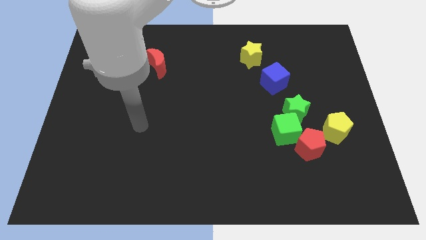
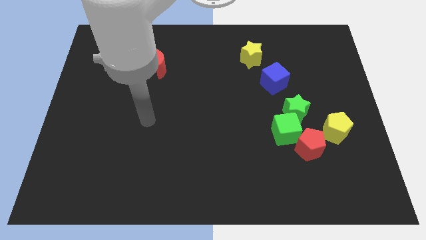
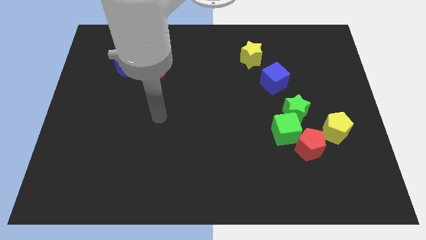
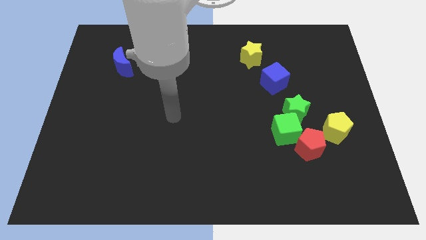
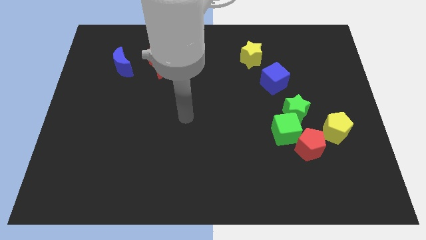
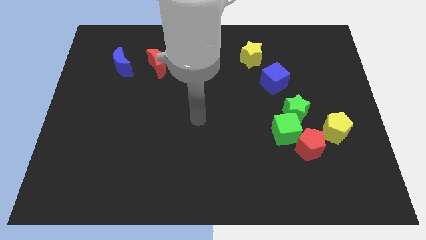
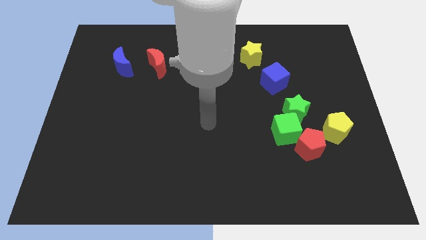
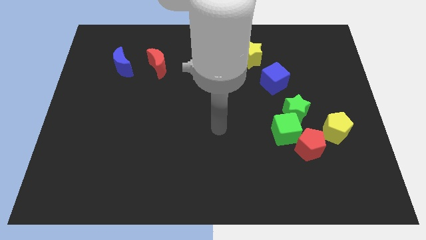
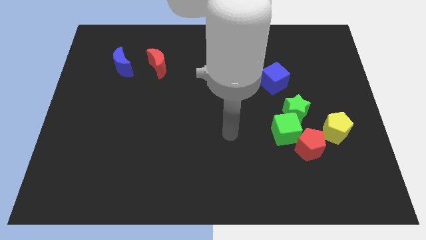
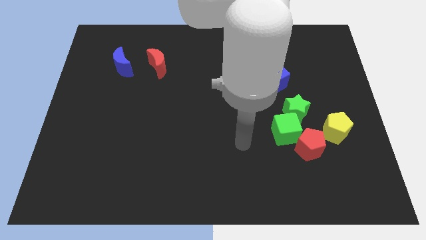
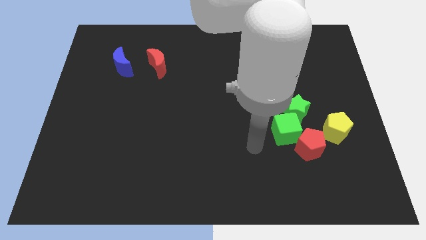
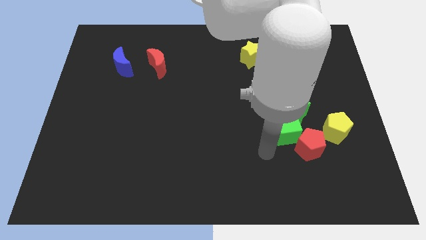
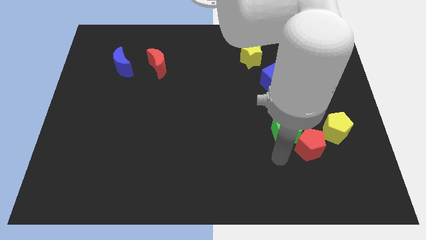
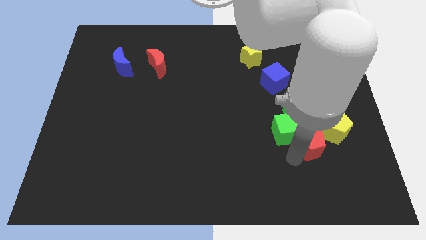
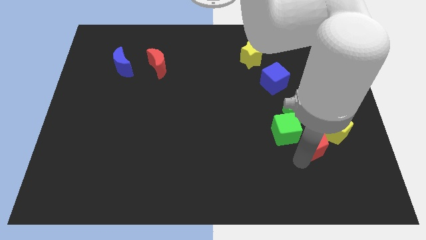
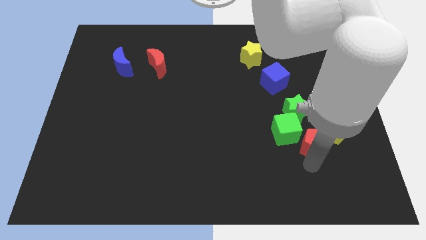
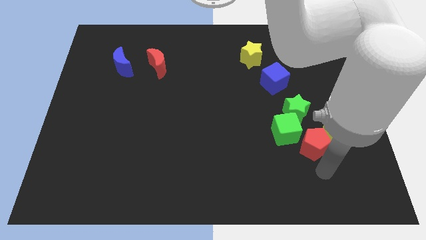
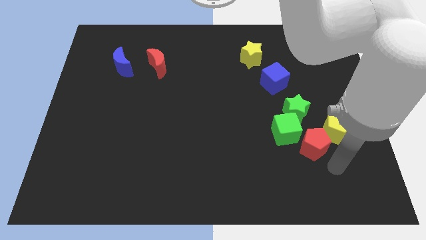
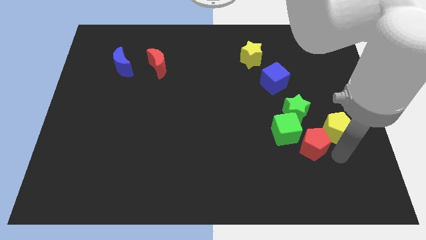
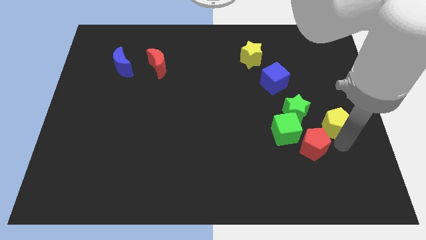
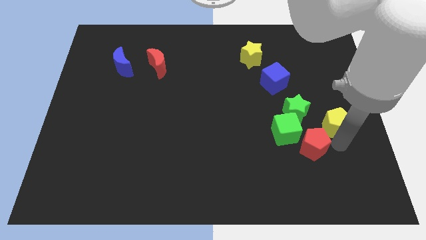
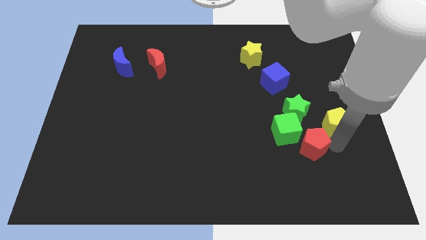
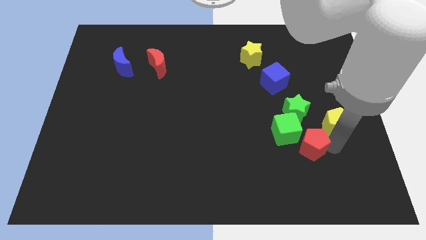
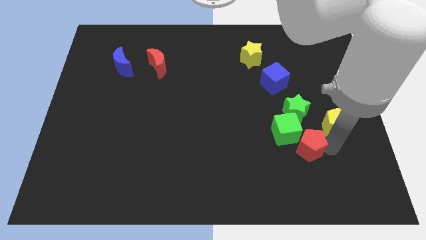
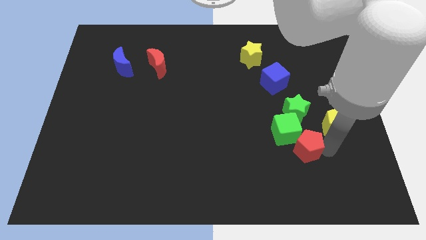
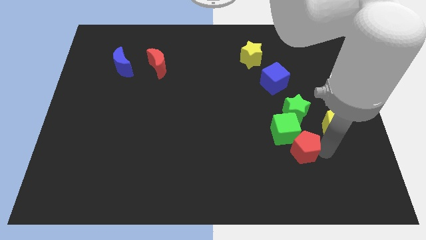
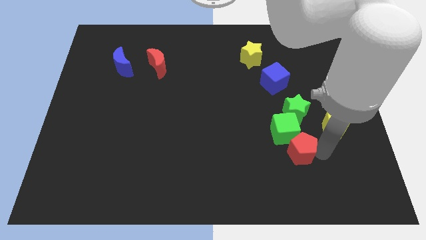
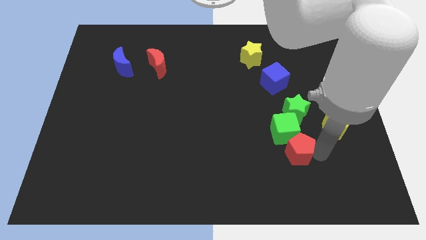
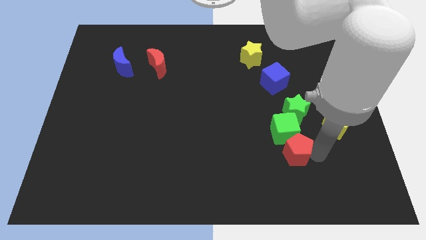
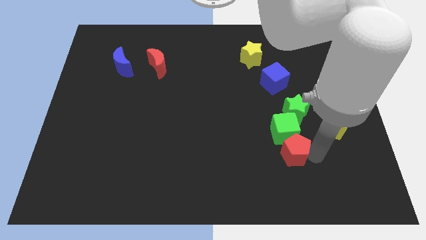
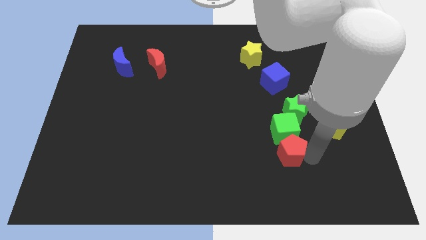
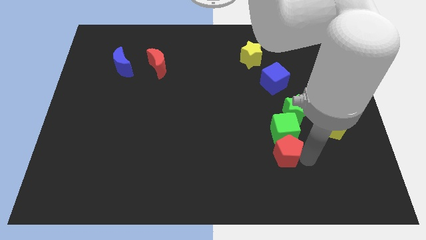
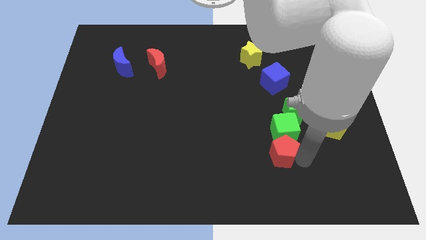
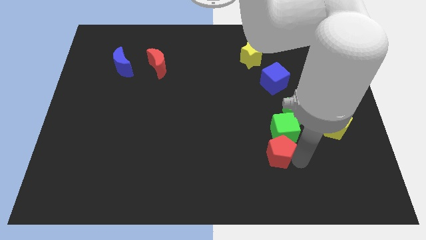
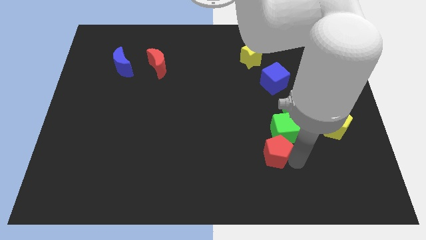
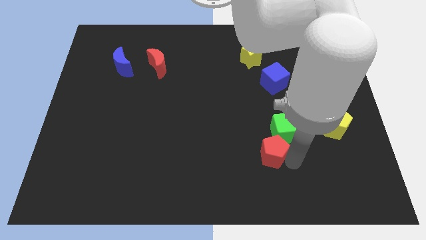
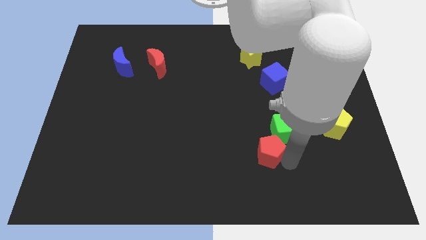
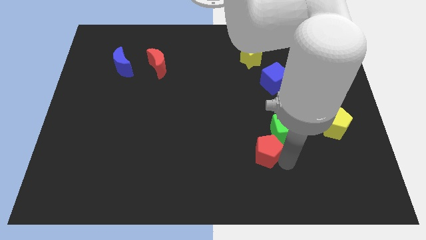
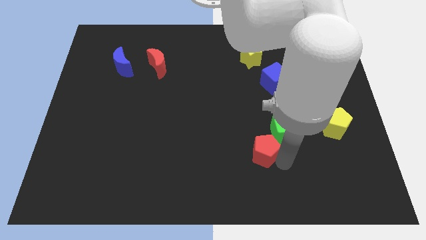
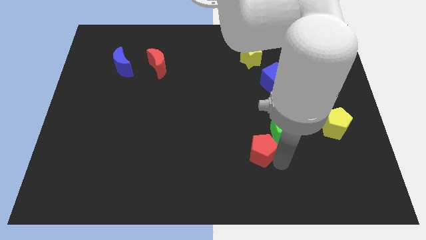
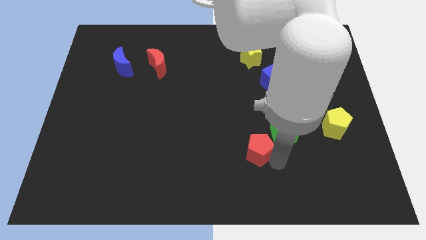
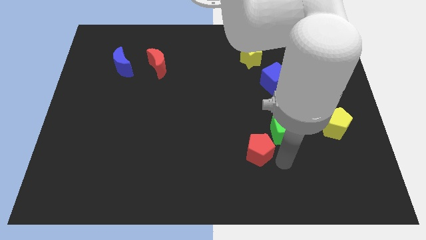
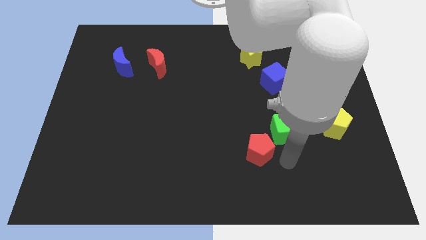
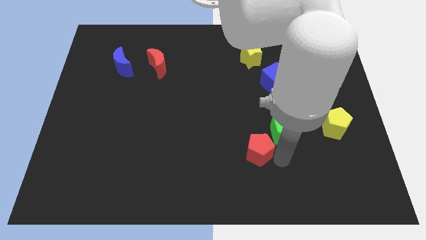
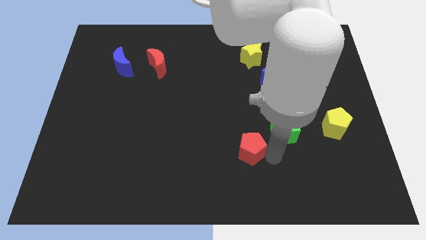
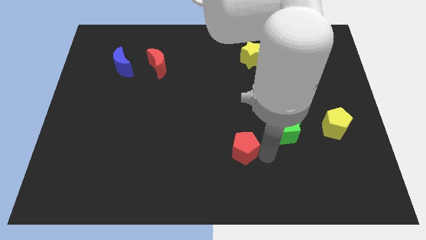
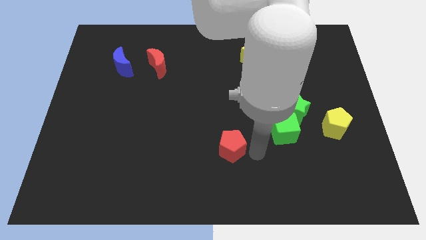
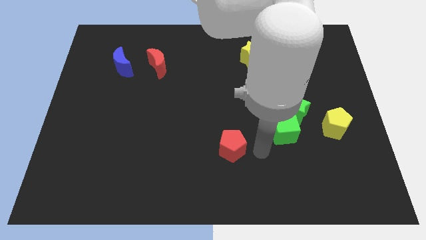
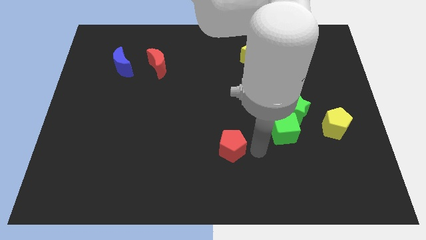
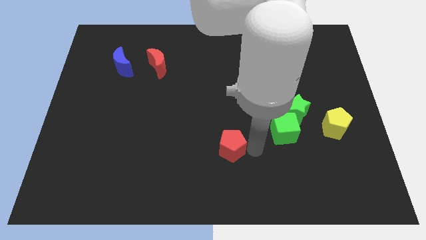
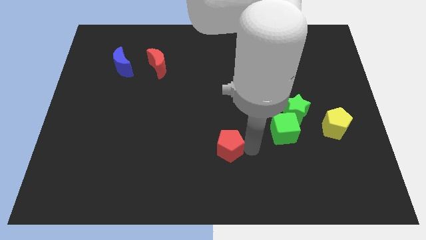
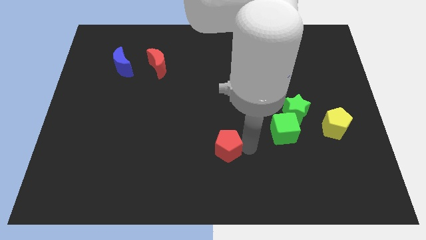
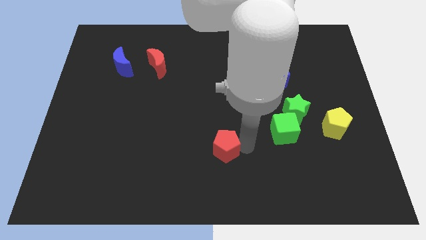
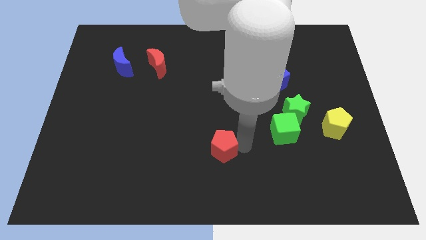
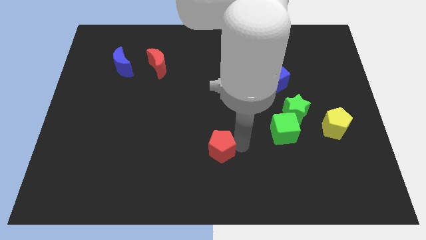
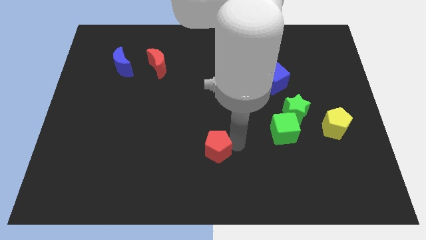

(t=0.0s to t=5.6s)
move the red pentagon to the left

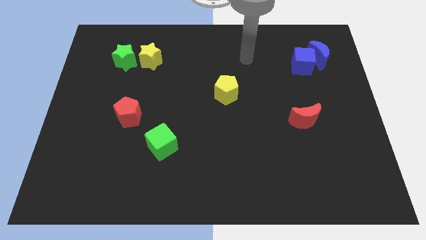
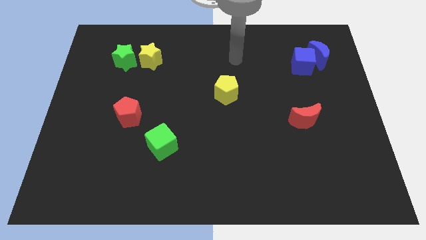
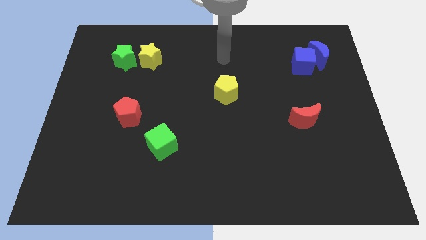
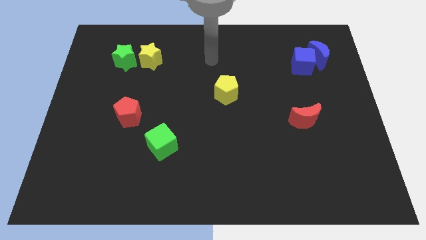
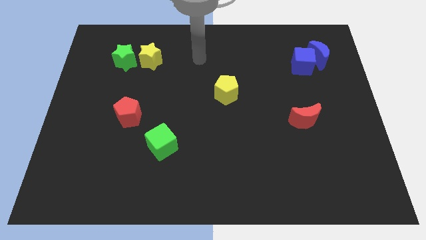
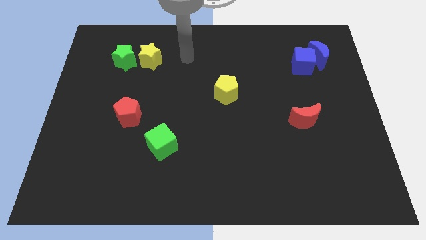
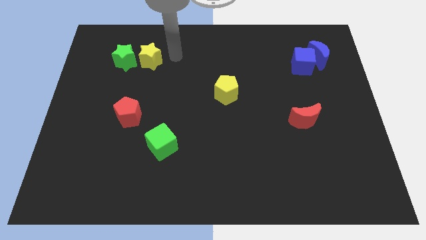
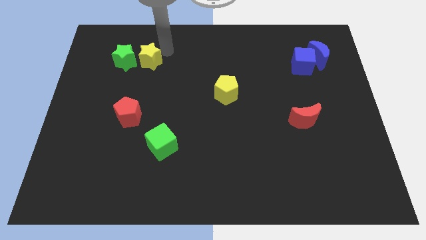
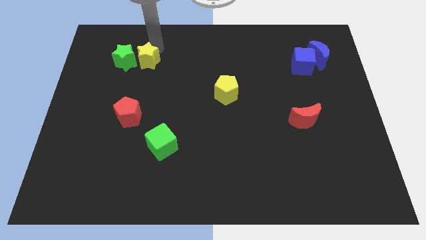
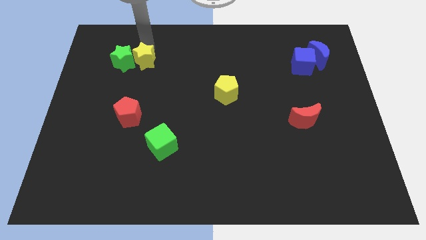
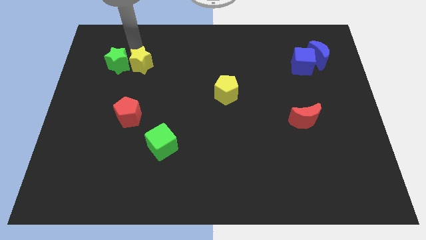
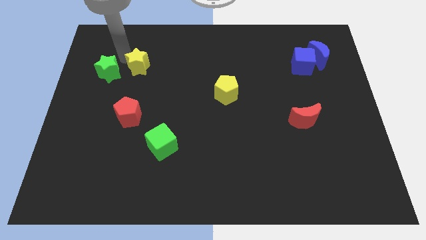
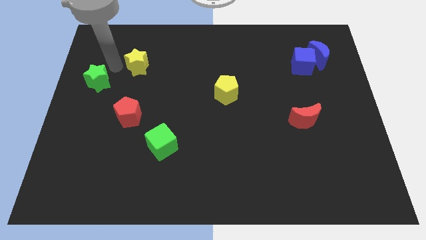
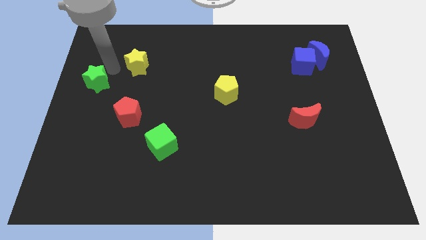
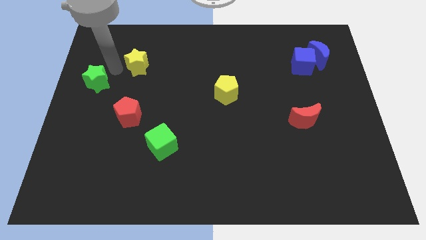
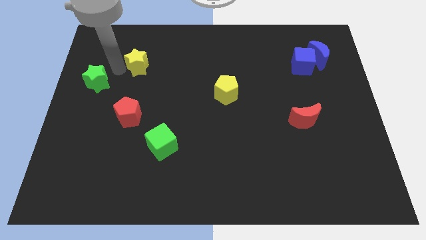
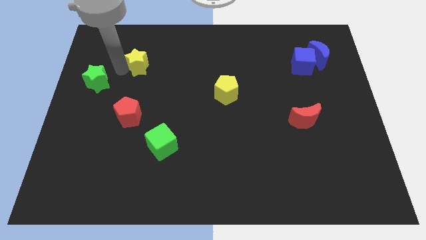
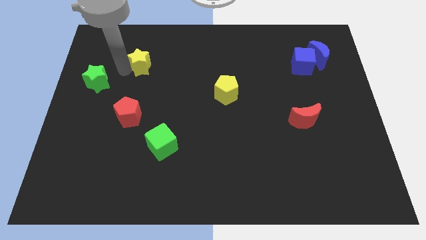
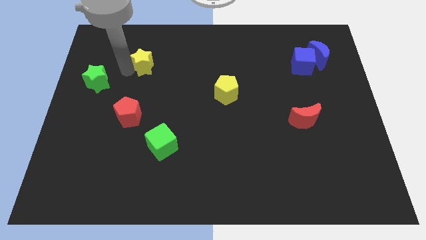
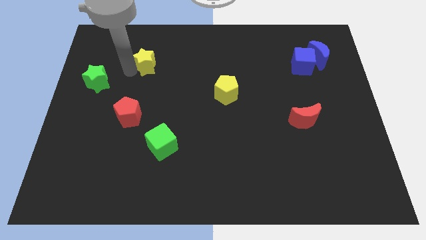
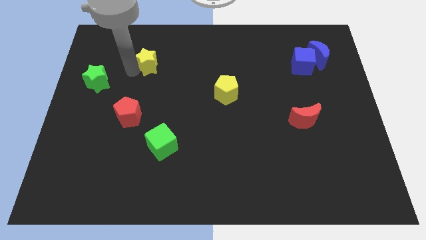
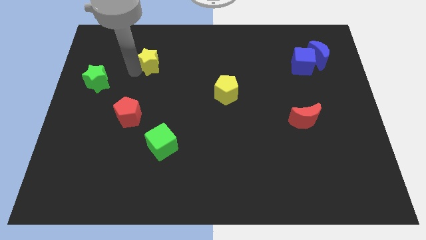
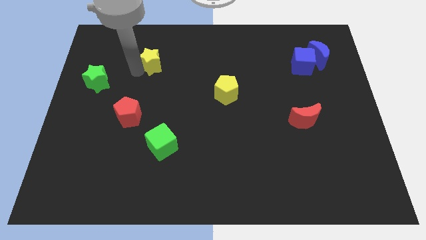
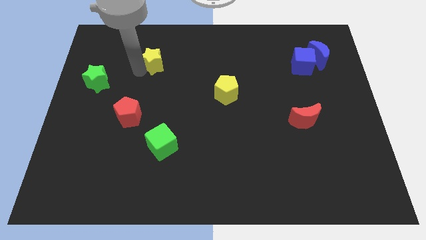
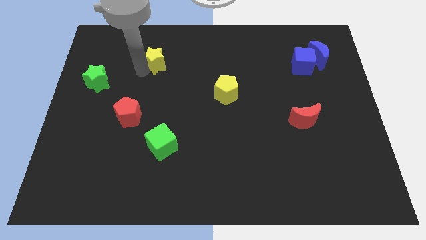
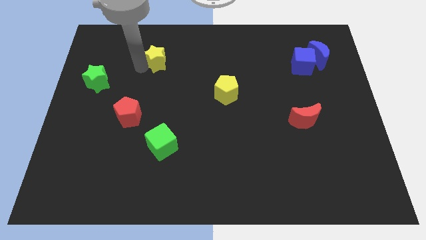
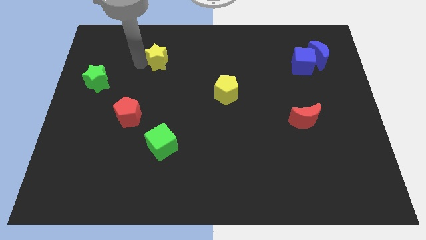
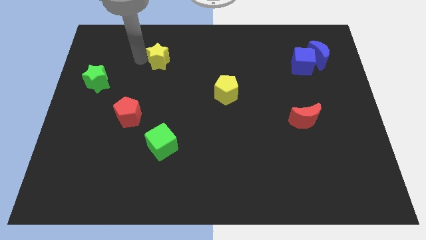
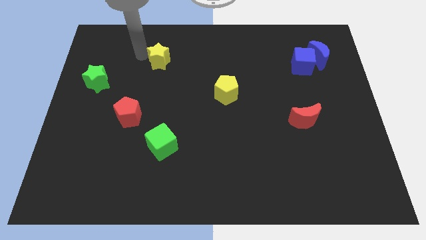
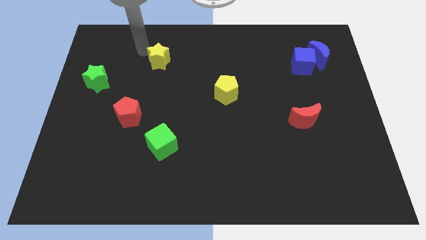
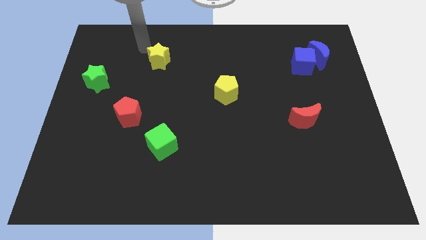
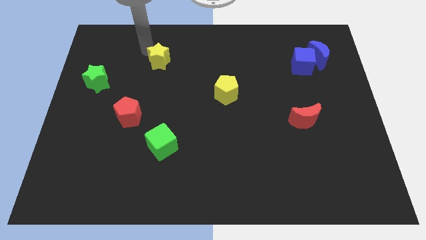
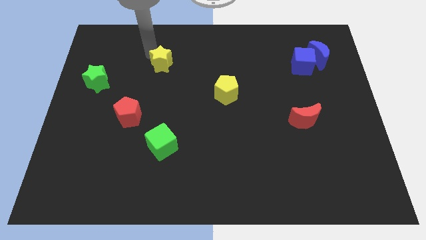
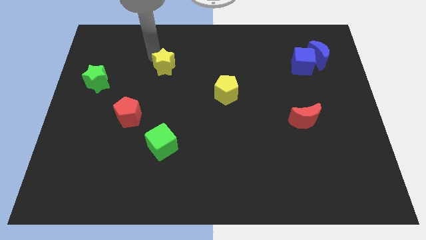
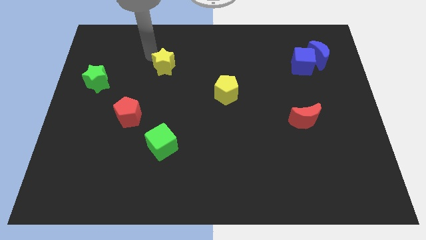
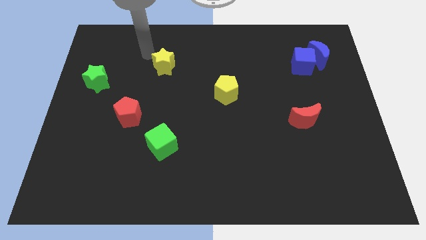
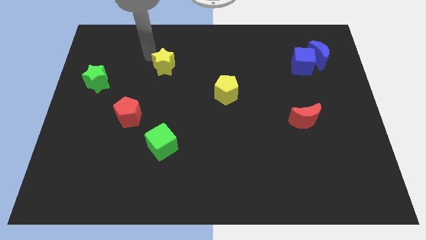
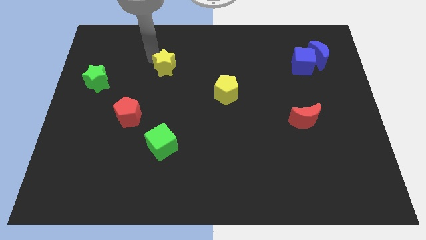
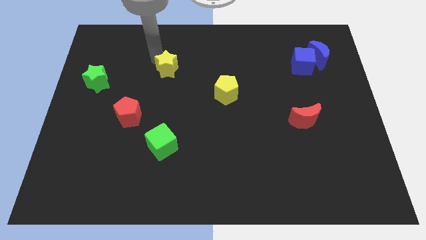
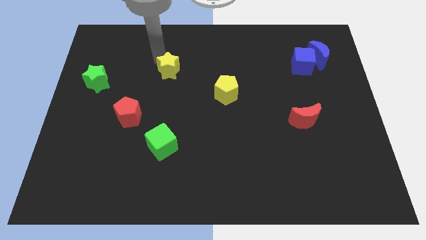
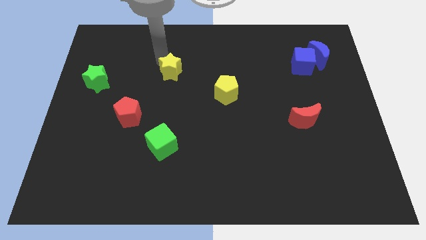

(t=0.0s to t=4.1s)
slightly push the yellow star down and then right
